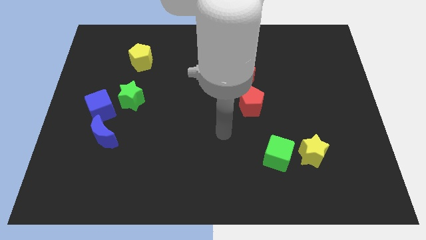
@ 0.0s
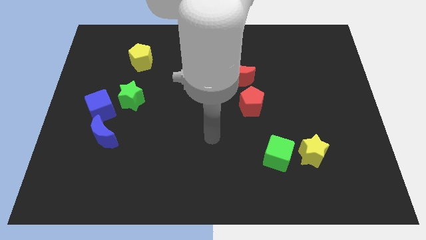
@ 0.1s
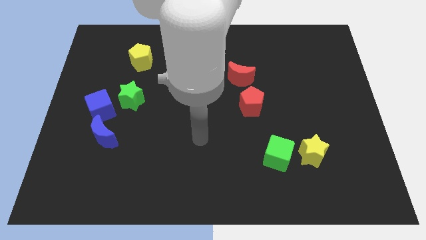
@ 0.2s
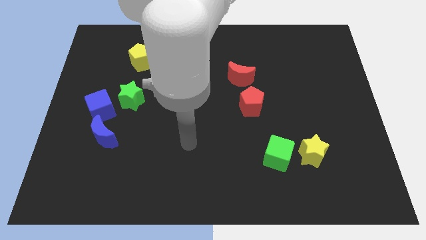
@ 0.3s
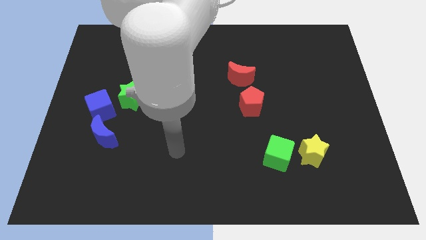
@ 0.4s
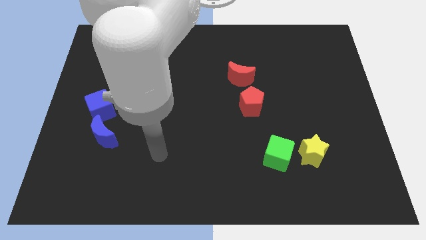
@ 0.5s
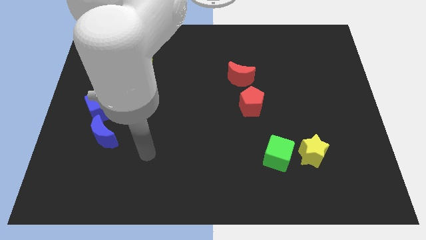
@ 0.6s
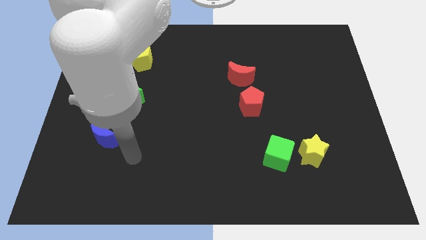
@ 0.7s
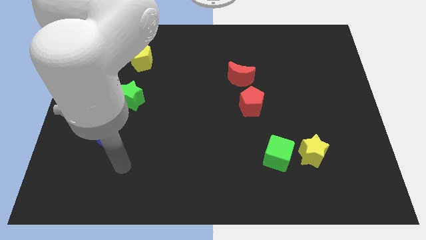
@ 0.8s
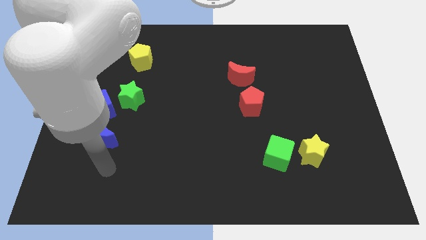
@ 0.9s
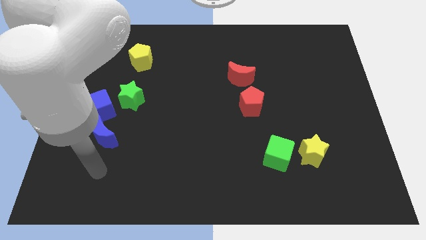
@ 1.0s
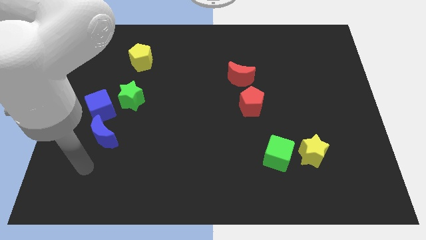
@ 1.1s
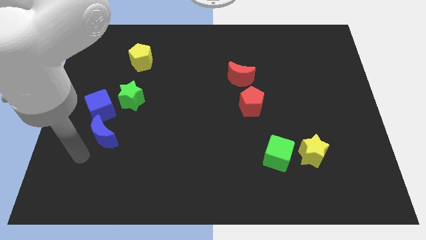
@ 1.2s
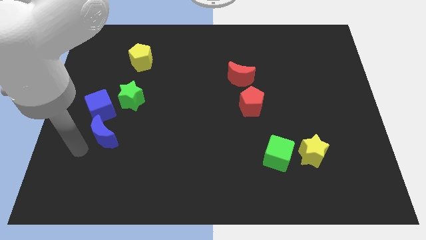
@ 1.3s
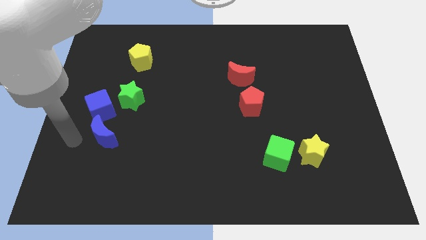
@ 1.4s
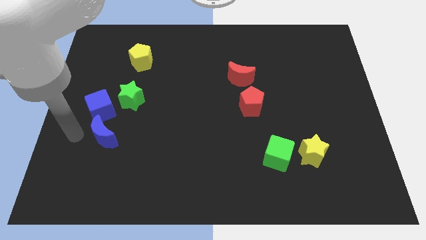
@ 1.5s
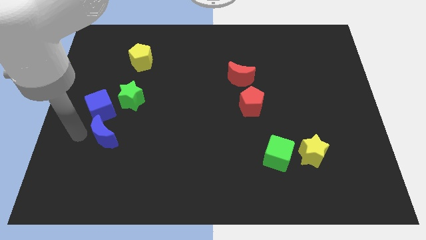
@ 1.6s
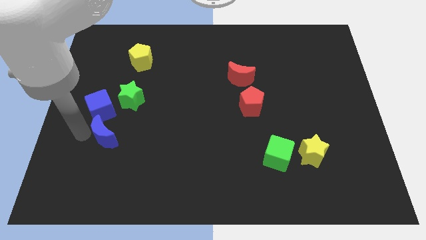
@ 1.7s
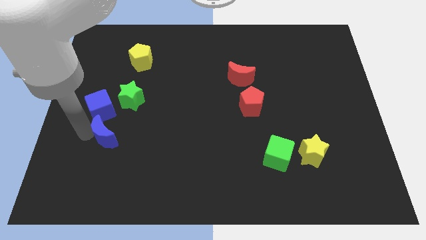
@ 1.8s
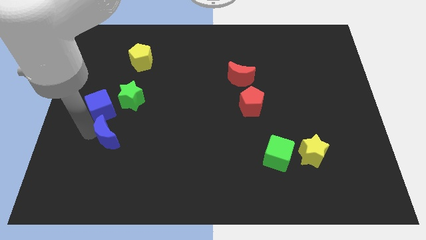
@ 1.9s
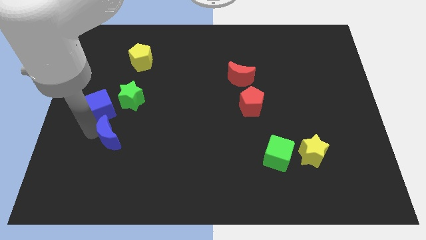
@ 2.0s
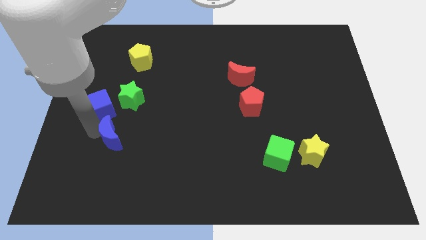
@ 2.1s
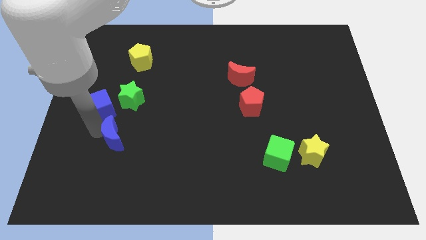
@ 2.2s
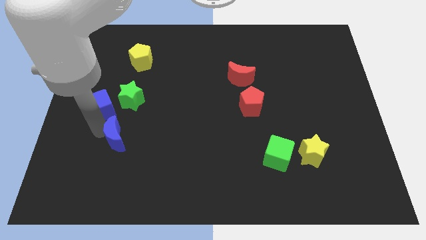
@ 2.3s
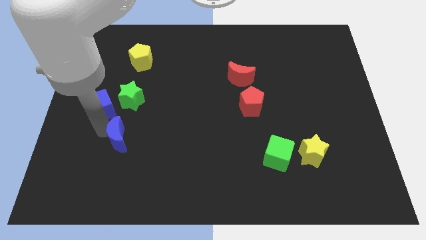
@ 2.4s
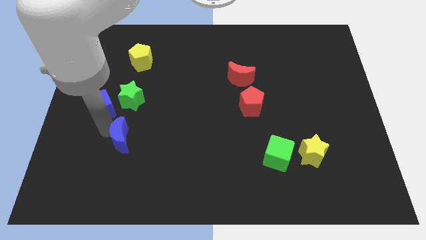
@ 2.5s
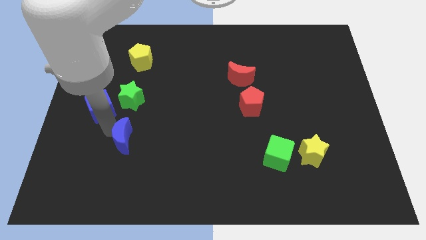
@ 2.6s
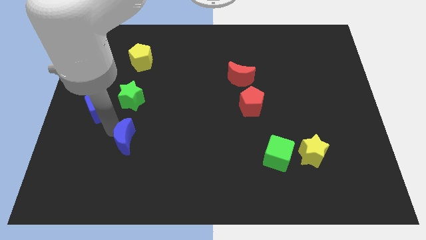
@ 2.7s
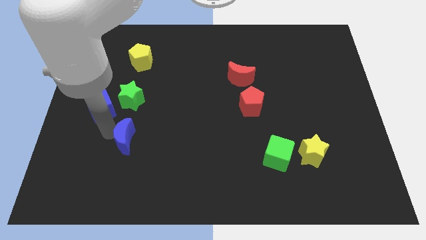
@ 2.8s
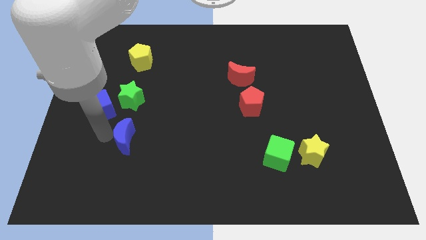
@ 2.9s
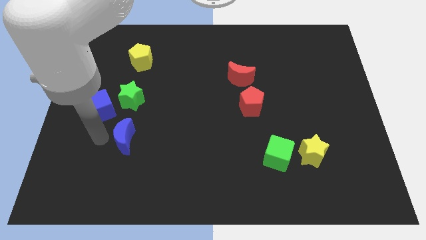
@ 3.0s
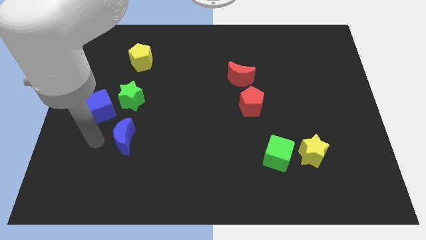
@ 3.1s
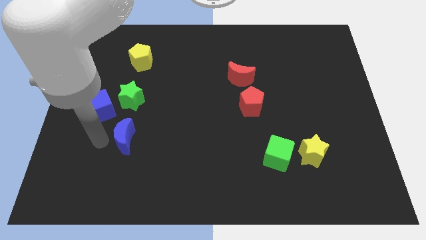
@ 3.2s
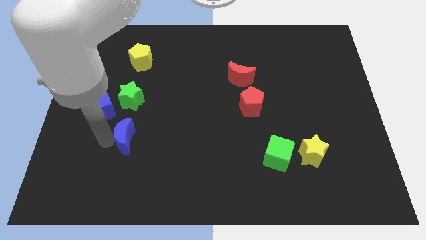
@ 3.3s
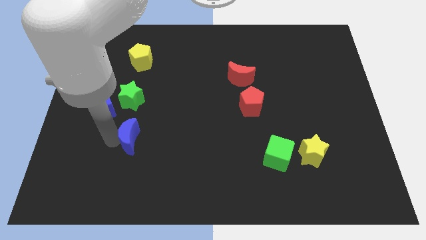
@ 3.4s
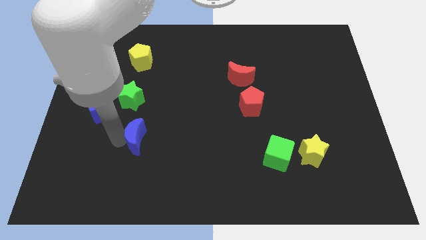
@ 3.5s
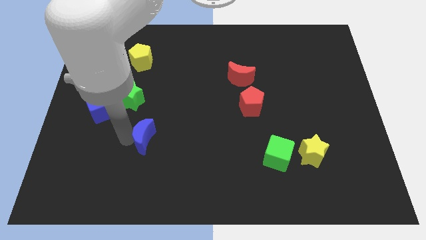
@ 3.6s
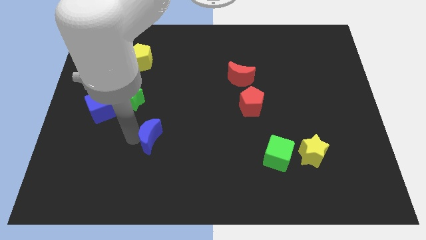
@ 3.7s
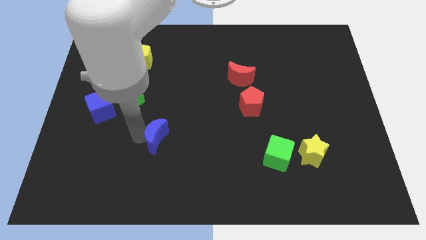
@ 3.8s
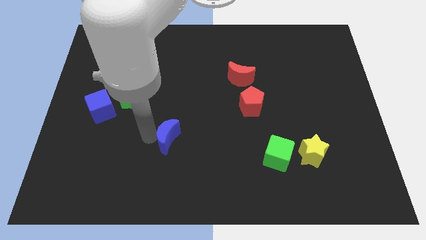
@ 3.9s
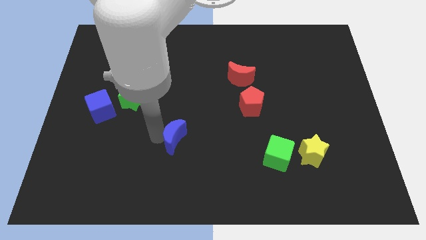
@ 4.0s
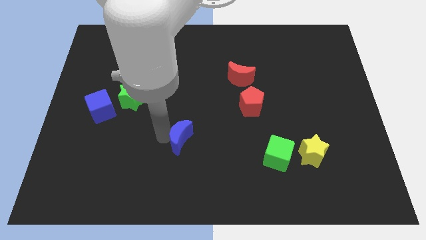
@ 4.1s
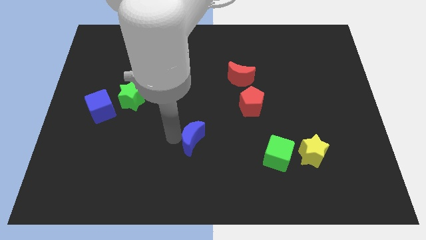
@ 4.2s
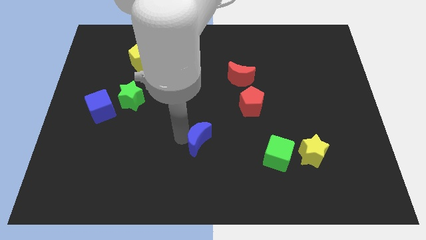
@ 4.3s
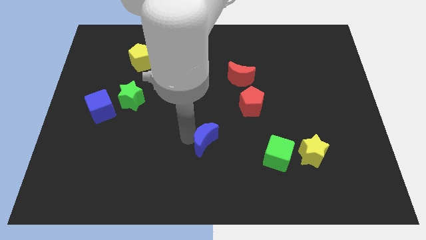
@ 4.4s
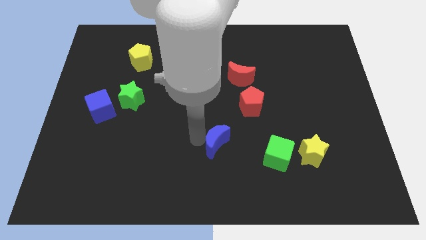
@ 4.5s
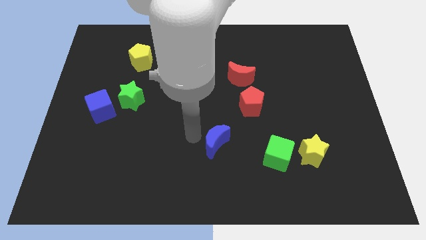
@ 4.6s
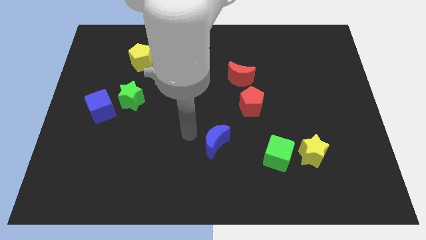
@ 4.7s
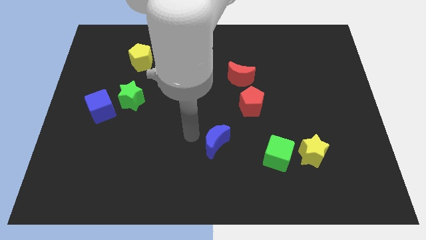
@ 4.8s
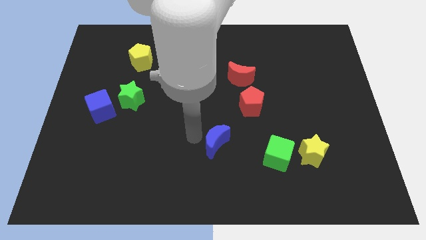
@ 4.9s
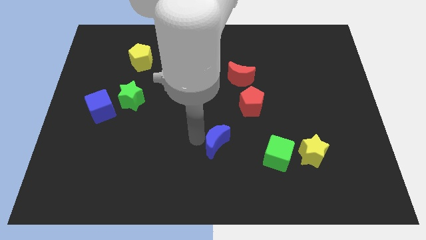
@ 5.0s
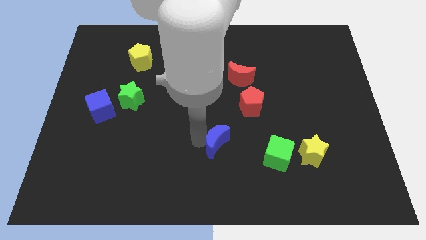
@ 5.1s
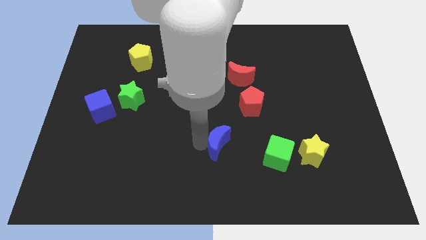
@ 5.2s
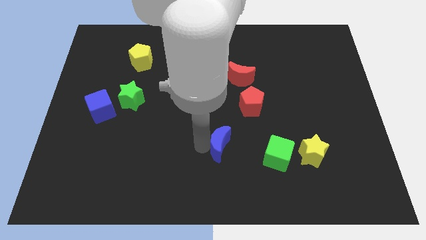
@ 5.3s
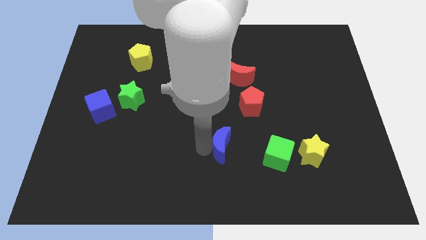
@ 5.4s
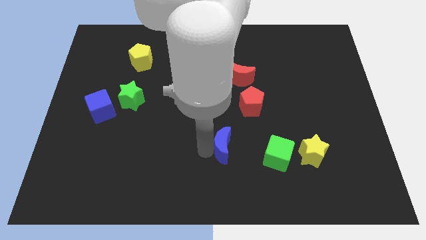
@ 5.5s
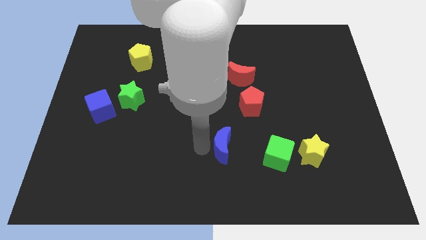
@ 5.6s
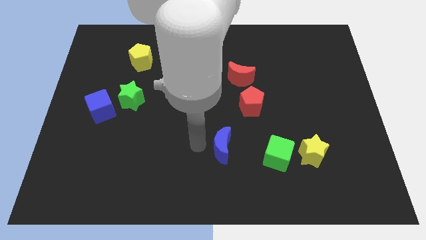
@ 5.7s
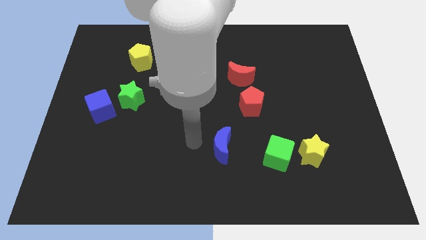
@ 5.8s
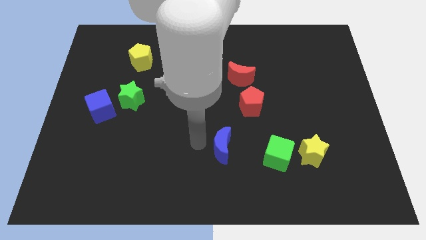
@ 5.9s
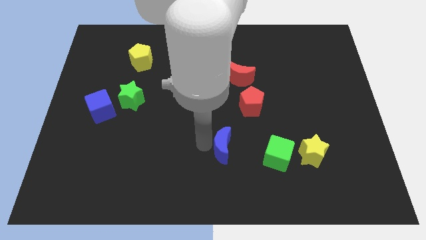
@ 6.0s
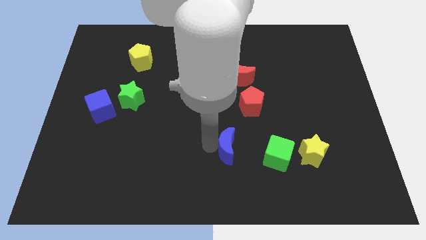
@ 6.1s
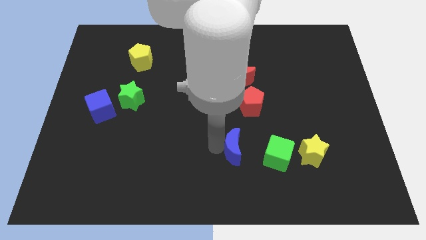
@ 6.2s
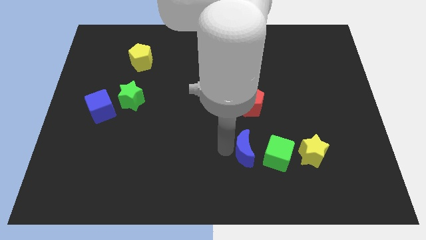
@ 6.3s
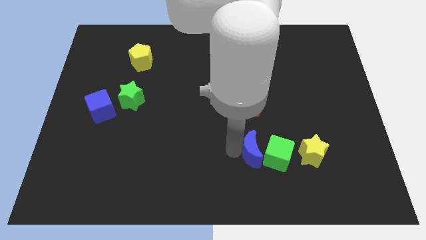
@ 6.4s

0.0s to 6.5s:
slide the blue moon next to the green cube

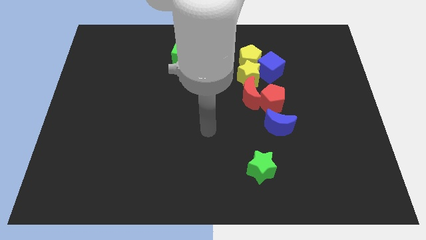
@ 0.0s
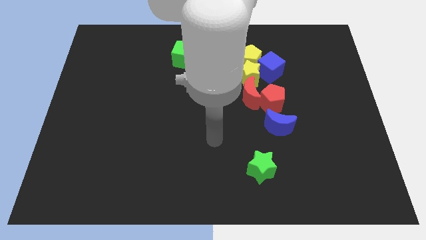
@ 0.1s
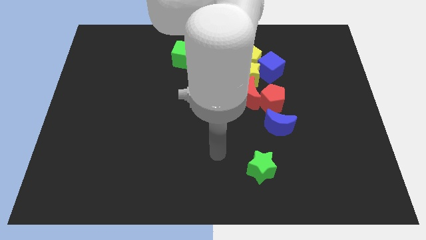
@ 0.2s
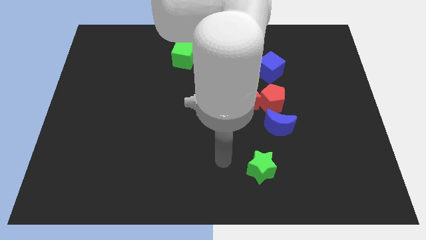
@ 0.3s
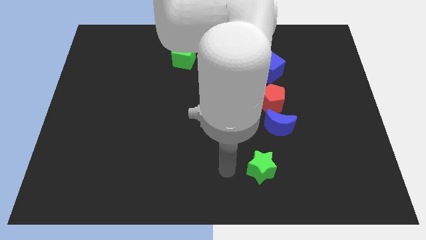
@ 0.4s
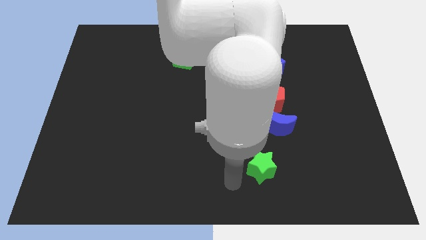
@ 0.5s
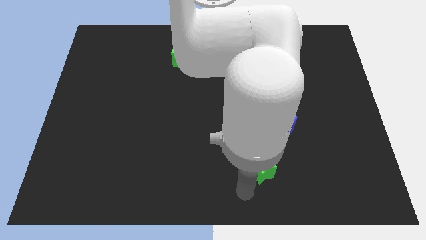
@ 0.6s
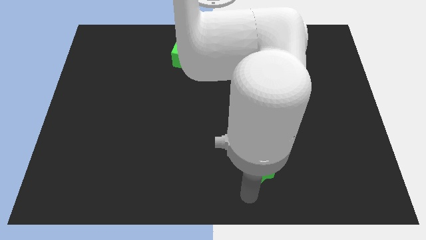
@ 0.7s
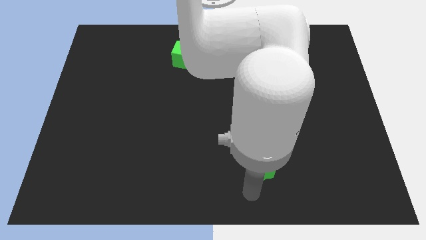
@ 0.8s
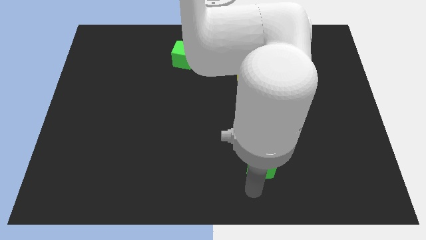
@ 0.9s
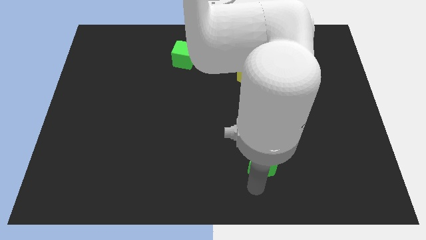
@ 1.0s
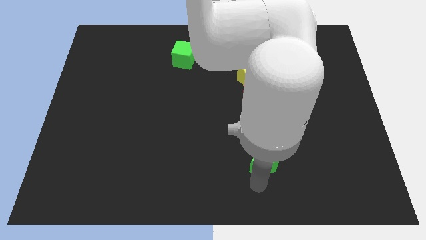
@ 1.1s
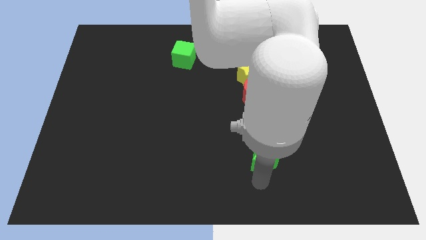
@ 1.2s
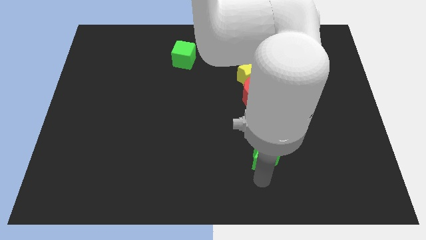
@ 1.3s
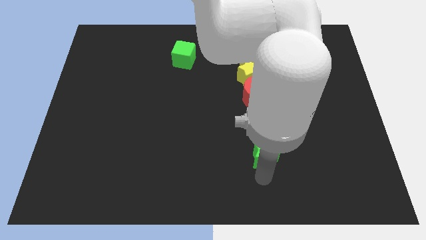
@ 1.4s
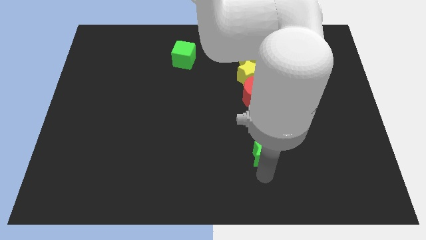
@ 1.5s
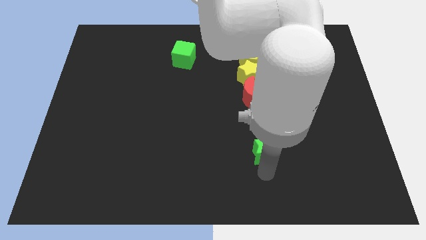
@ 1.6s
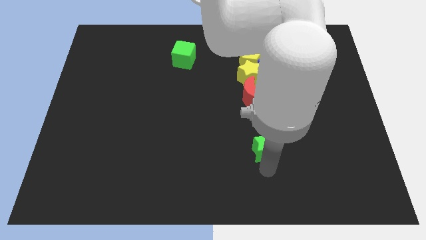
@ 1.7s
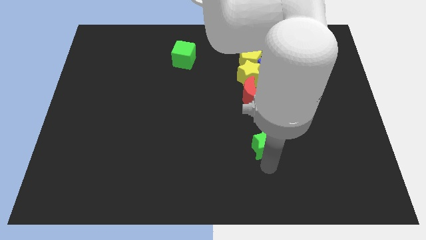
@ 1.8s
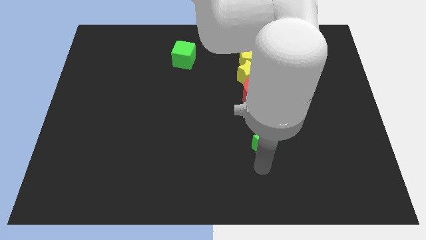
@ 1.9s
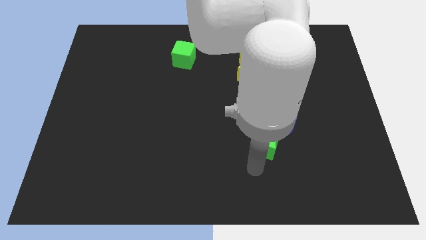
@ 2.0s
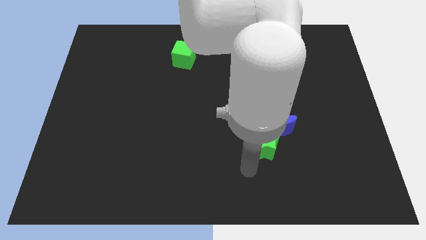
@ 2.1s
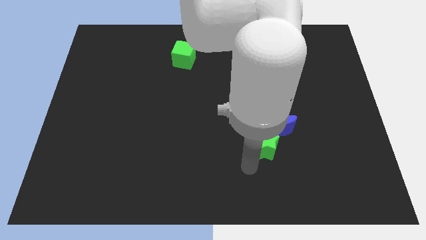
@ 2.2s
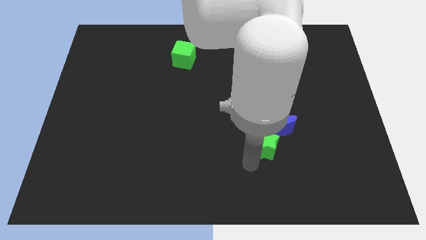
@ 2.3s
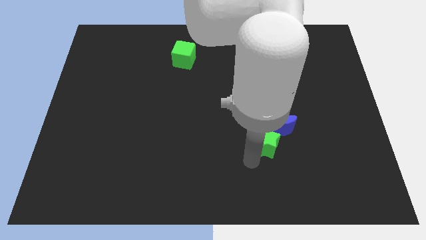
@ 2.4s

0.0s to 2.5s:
move the green star towards the blue moon
